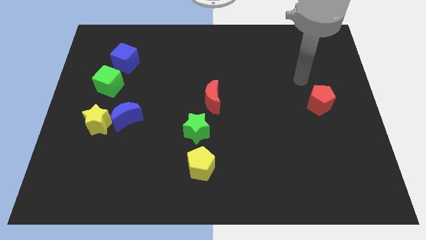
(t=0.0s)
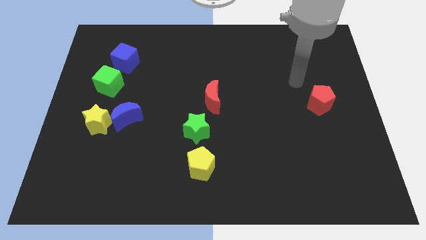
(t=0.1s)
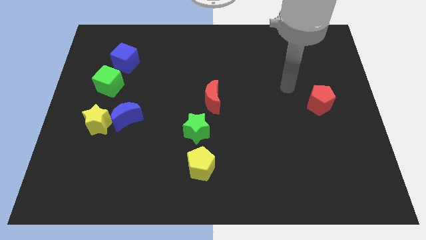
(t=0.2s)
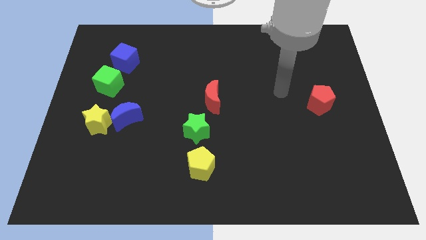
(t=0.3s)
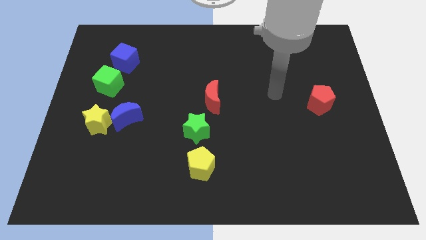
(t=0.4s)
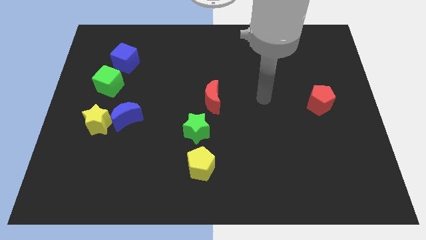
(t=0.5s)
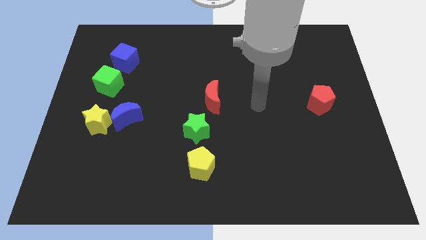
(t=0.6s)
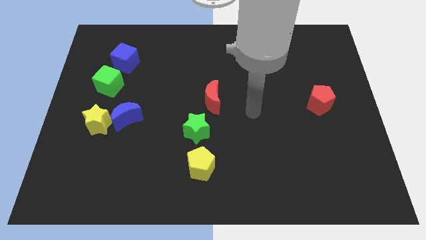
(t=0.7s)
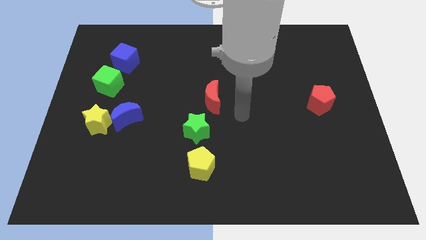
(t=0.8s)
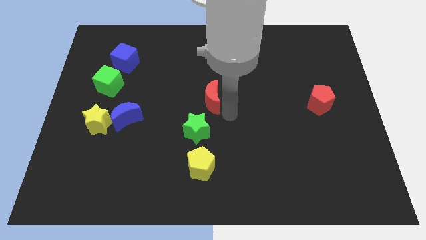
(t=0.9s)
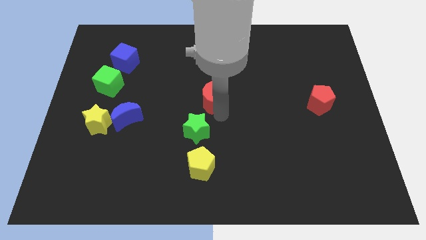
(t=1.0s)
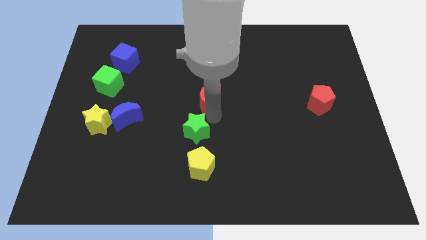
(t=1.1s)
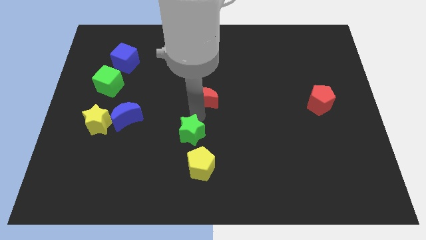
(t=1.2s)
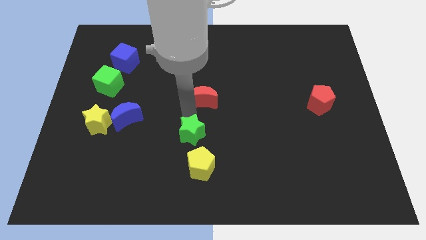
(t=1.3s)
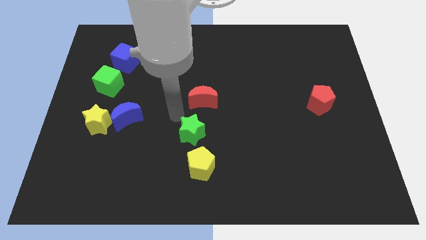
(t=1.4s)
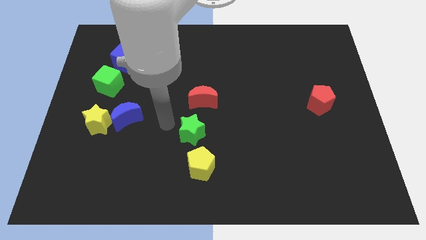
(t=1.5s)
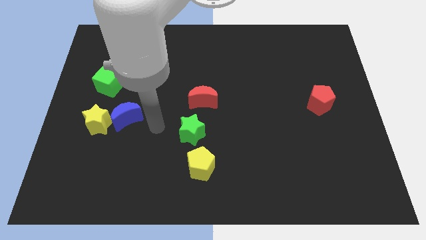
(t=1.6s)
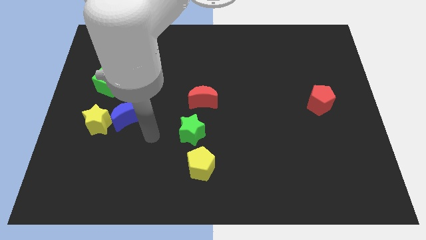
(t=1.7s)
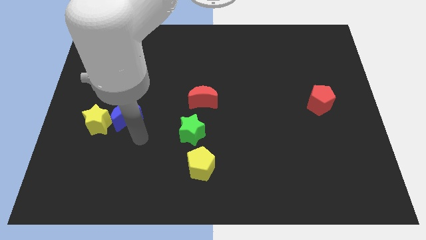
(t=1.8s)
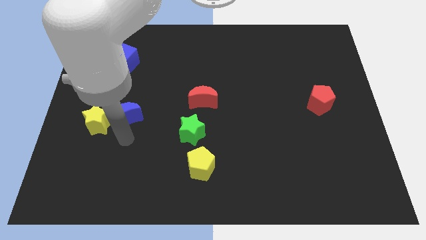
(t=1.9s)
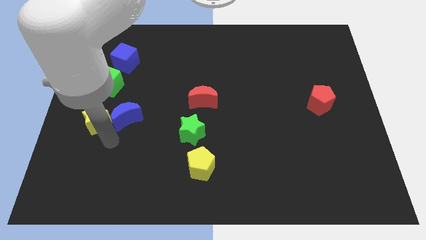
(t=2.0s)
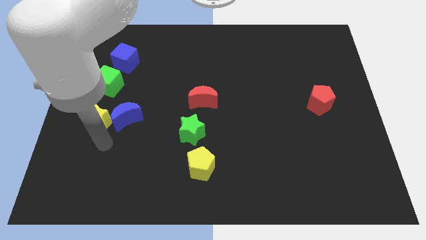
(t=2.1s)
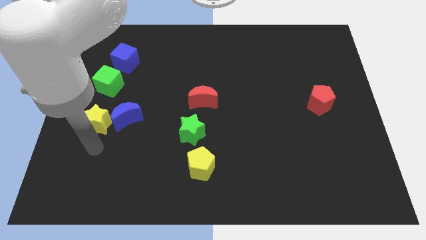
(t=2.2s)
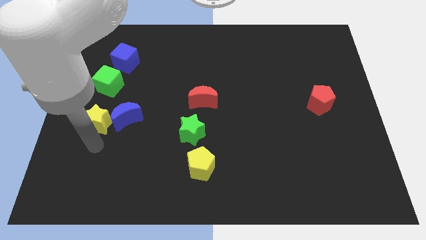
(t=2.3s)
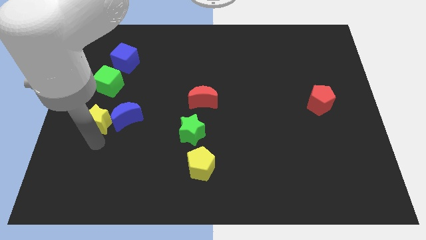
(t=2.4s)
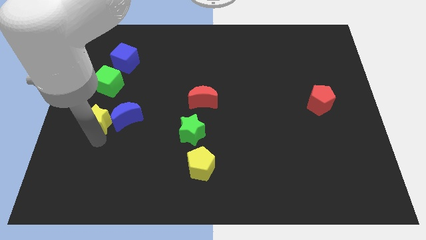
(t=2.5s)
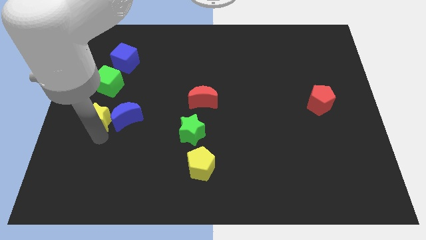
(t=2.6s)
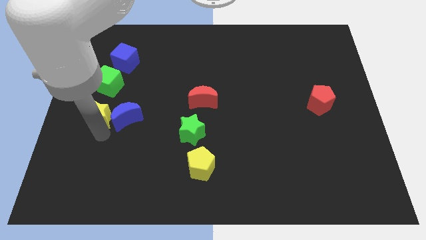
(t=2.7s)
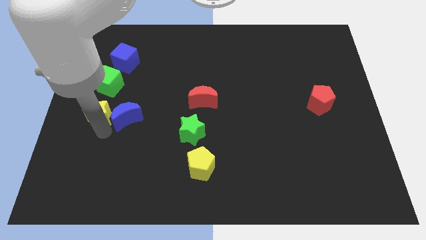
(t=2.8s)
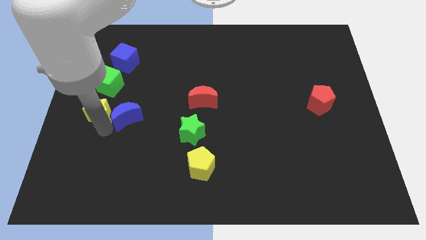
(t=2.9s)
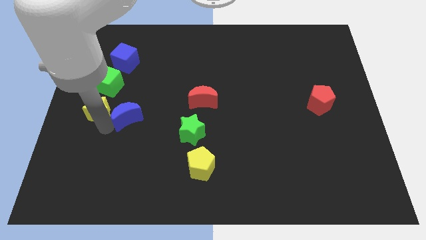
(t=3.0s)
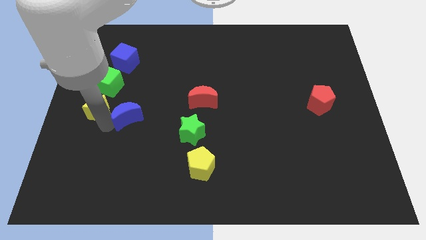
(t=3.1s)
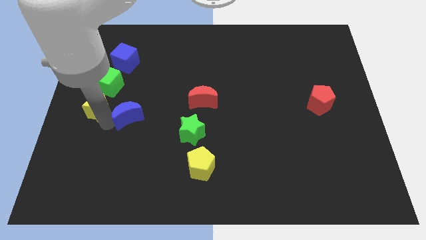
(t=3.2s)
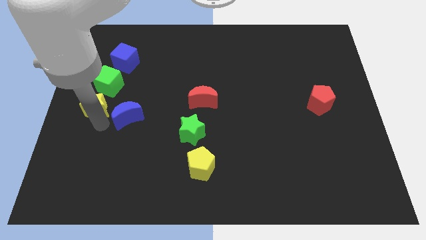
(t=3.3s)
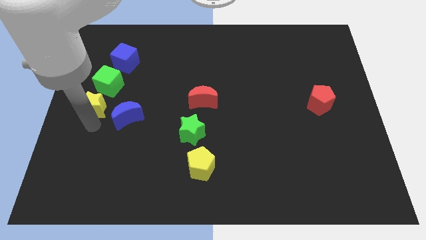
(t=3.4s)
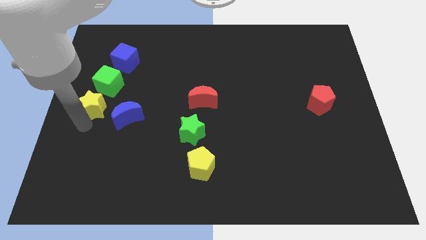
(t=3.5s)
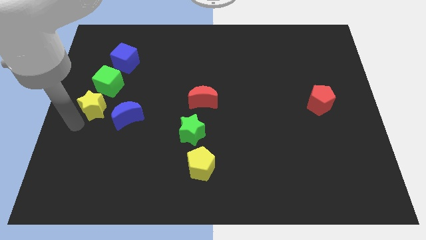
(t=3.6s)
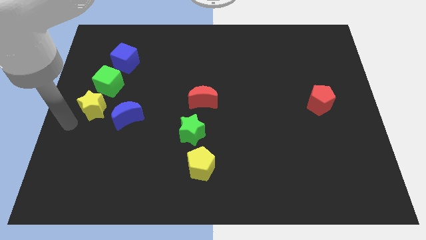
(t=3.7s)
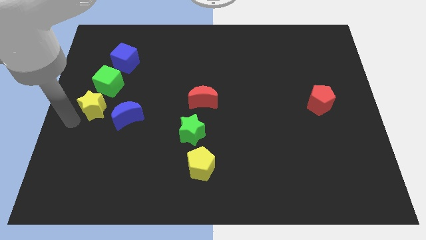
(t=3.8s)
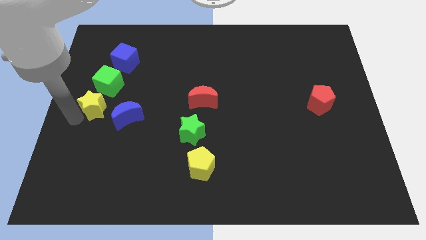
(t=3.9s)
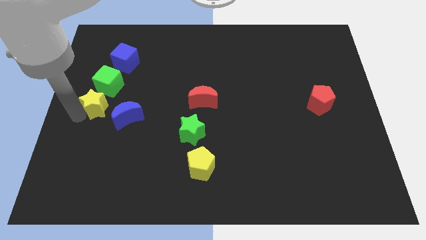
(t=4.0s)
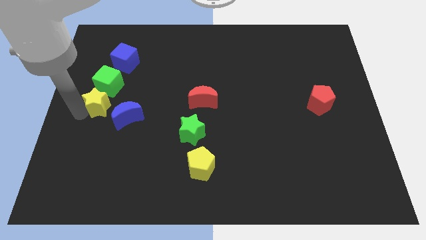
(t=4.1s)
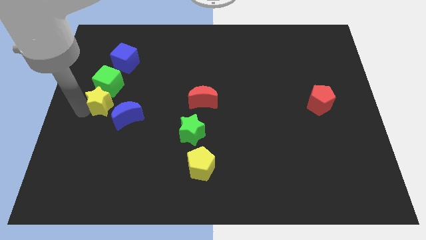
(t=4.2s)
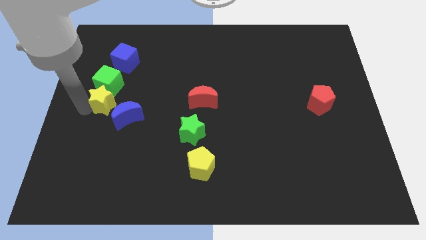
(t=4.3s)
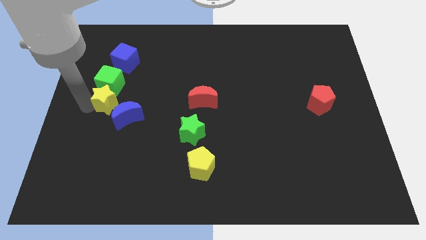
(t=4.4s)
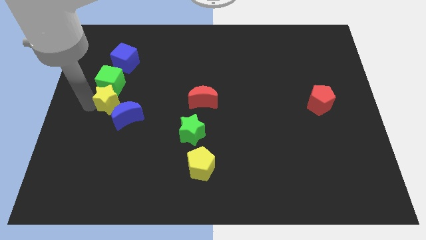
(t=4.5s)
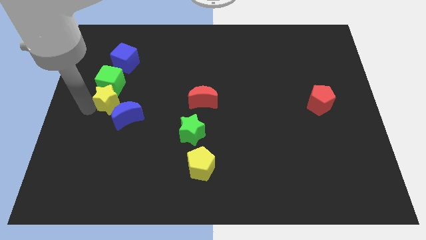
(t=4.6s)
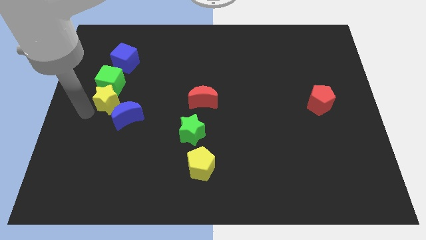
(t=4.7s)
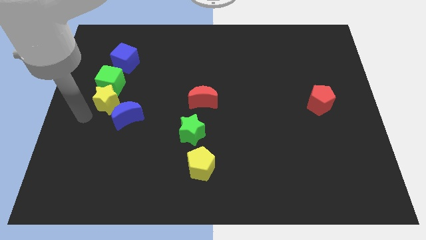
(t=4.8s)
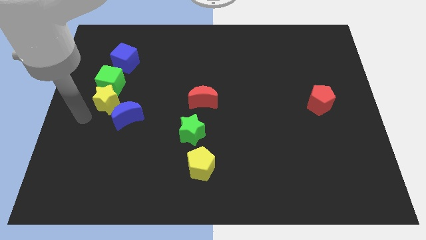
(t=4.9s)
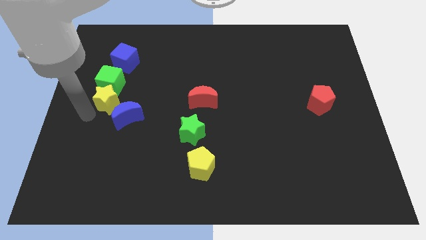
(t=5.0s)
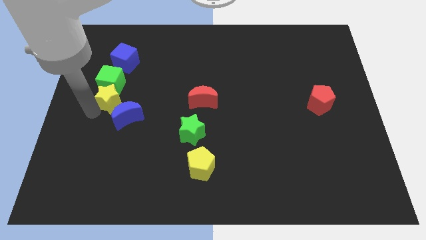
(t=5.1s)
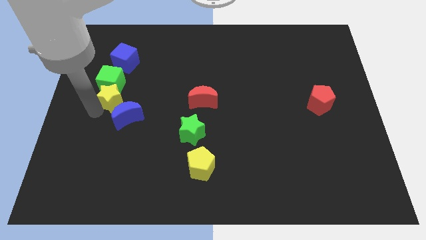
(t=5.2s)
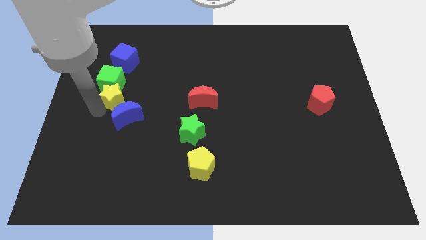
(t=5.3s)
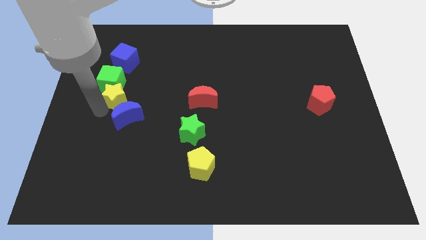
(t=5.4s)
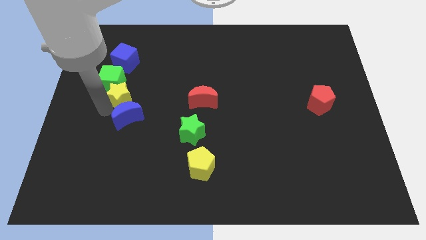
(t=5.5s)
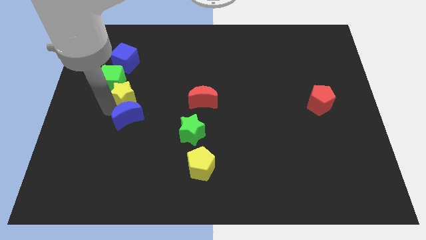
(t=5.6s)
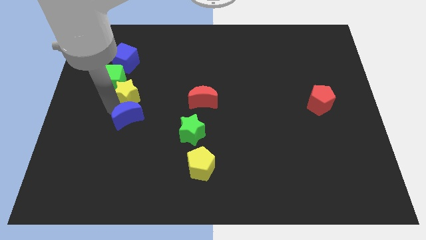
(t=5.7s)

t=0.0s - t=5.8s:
put the yellow star just right of the green cube

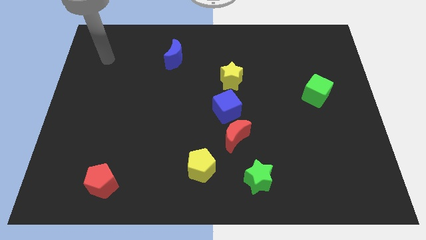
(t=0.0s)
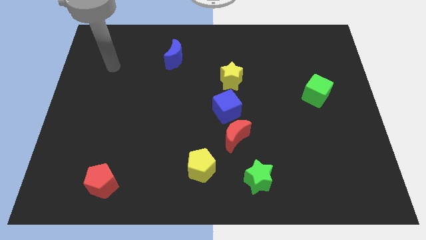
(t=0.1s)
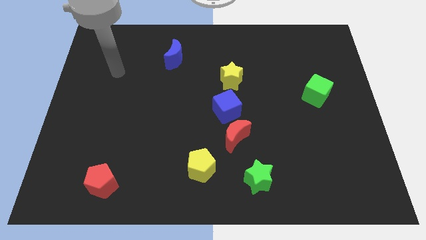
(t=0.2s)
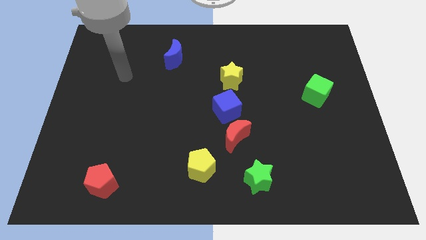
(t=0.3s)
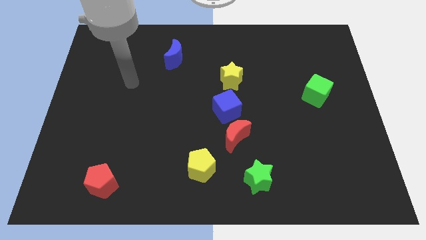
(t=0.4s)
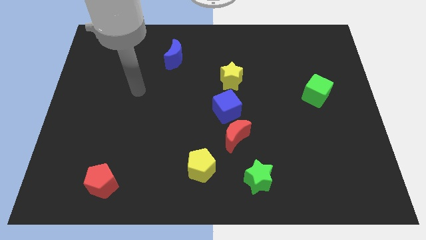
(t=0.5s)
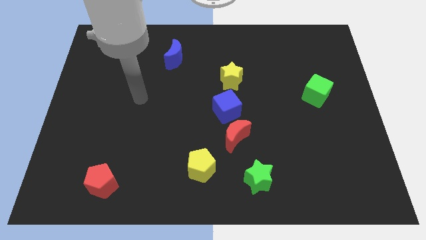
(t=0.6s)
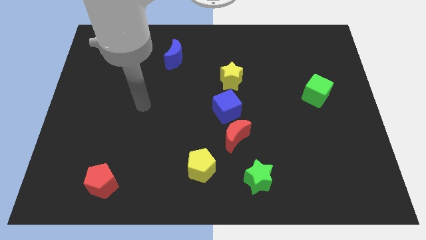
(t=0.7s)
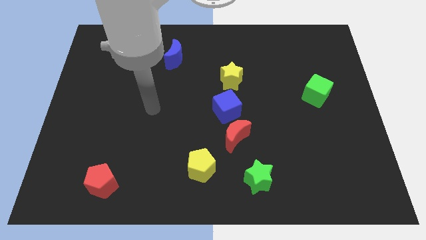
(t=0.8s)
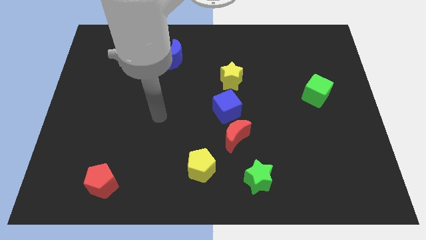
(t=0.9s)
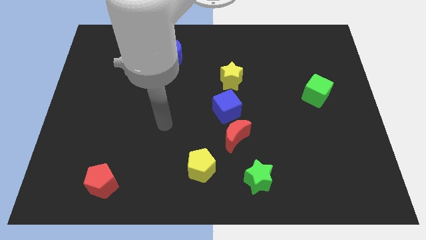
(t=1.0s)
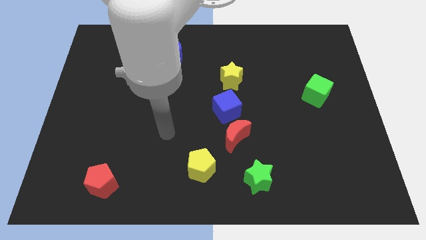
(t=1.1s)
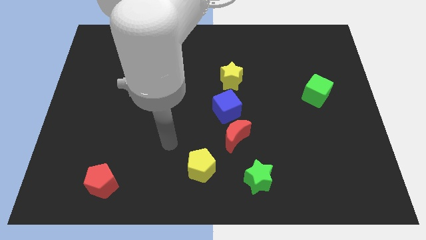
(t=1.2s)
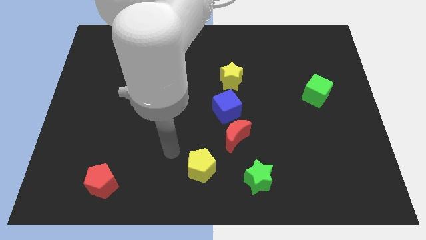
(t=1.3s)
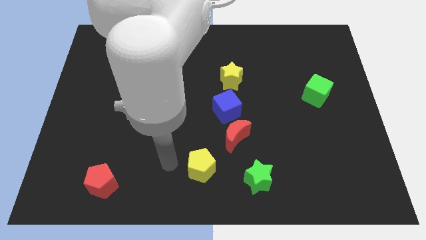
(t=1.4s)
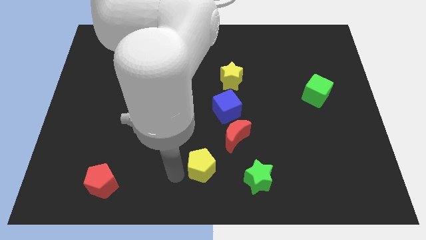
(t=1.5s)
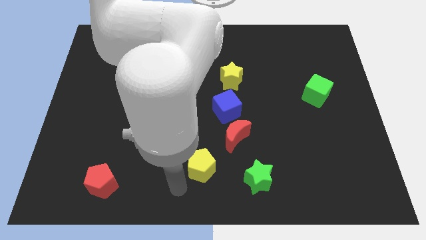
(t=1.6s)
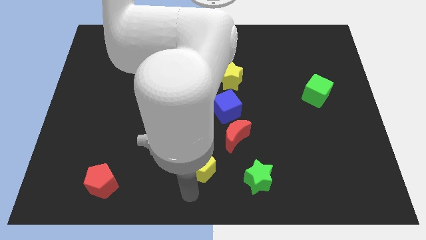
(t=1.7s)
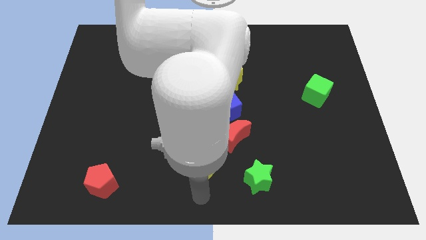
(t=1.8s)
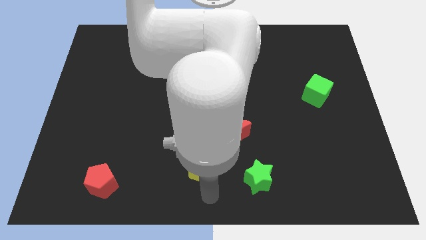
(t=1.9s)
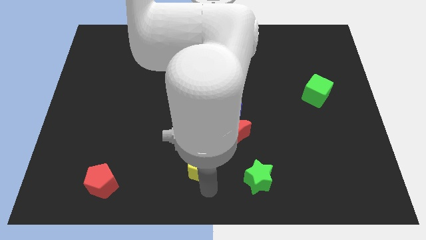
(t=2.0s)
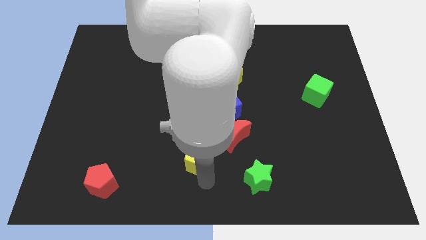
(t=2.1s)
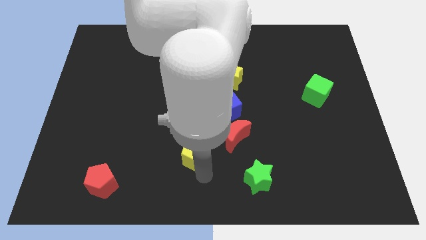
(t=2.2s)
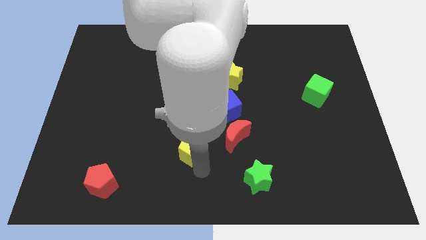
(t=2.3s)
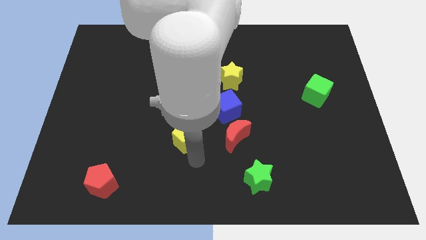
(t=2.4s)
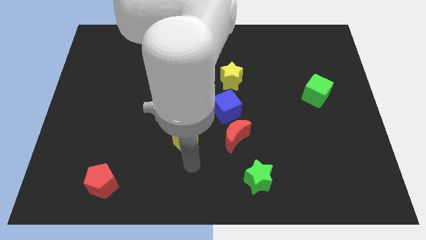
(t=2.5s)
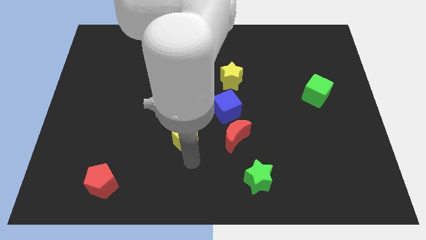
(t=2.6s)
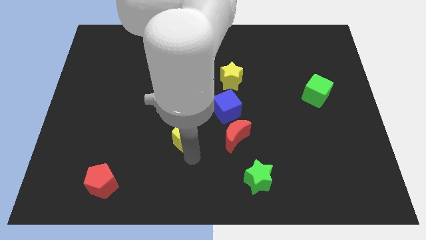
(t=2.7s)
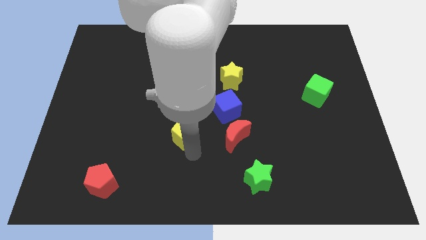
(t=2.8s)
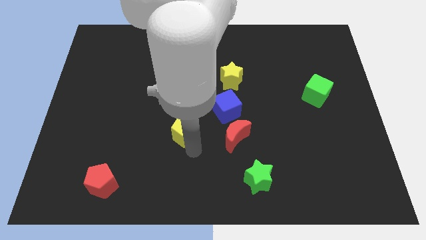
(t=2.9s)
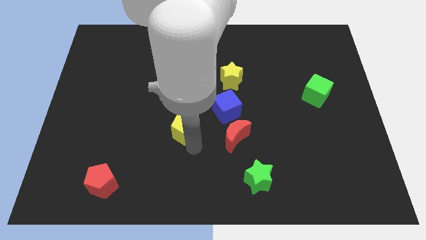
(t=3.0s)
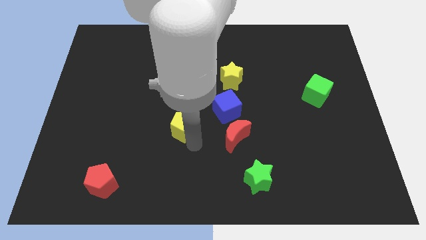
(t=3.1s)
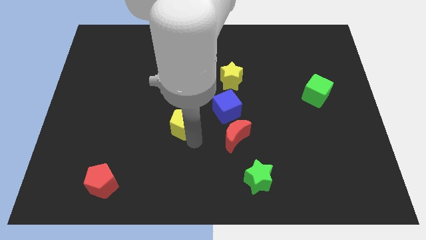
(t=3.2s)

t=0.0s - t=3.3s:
push the yellow pentagon left of the blue cube
